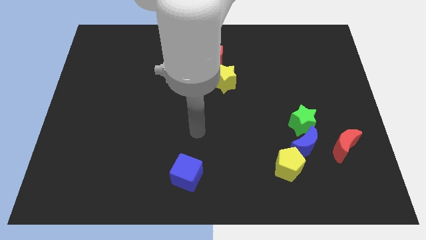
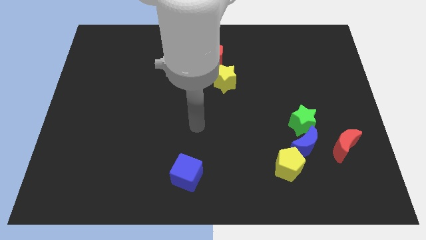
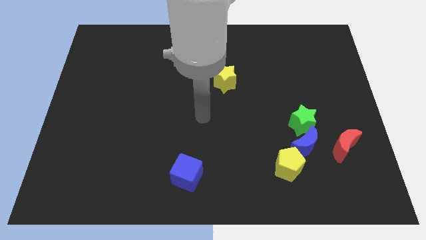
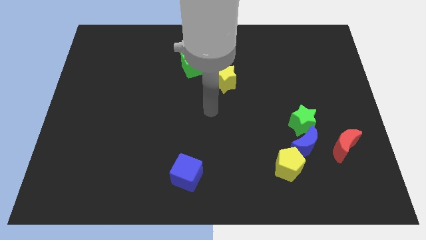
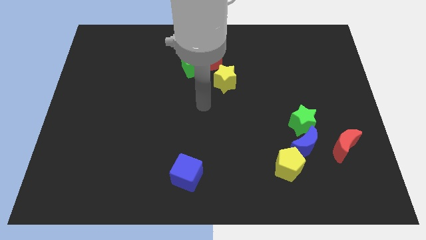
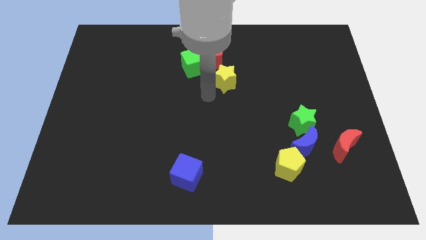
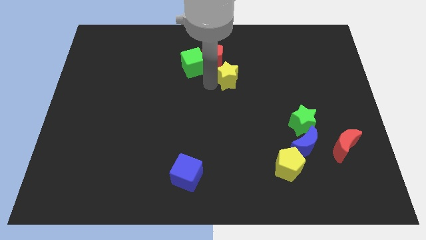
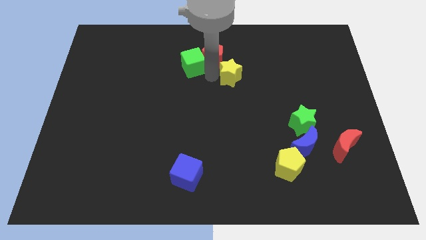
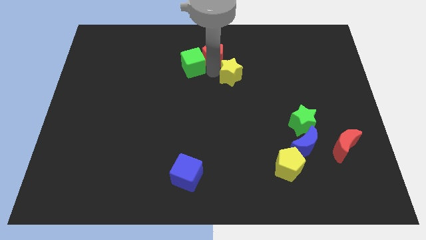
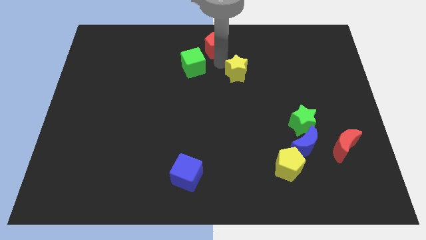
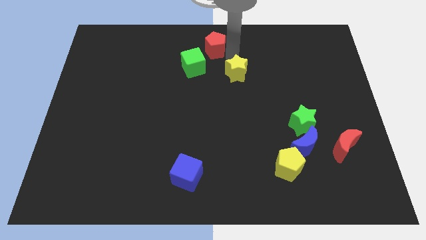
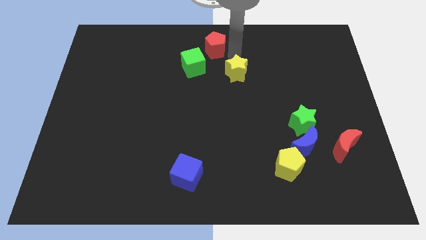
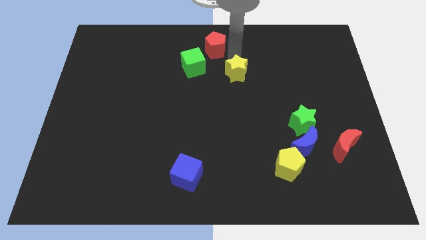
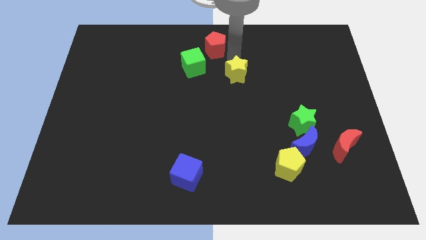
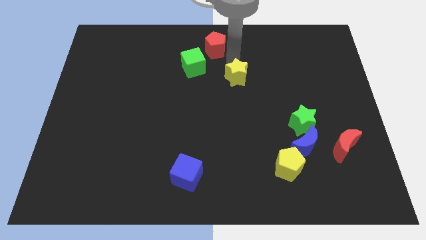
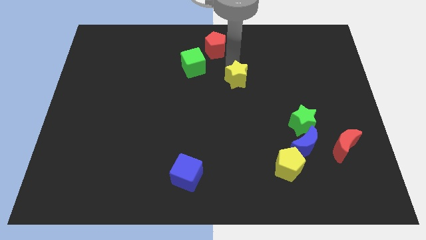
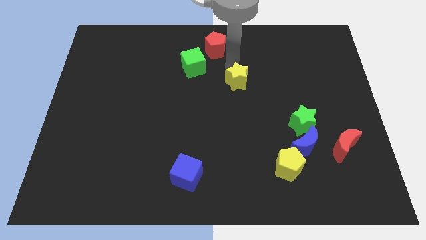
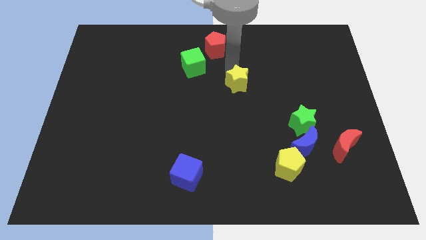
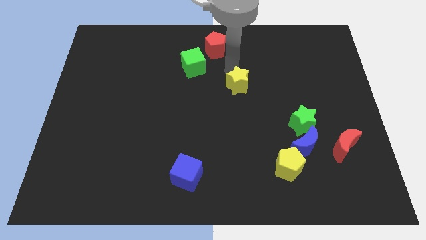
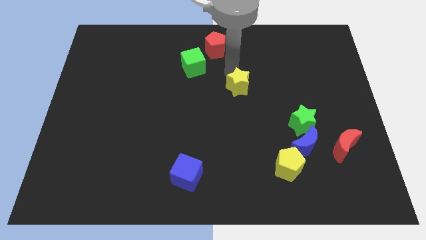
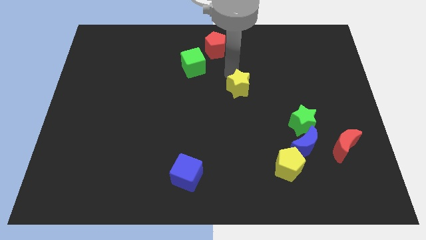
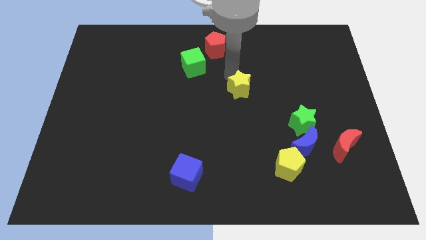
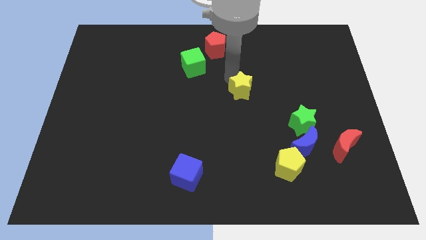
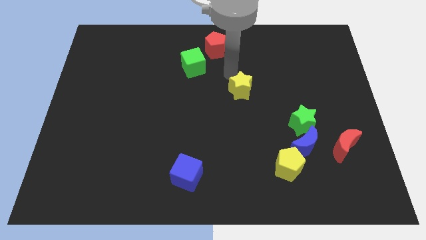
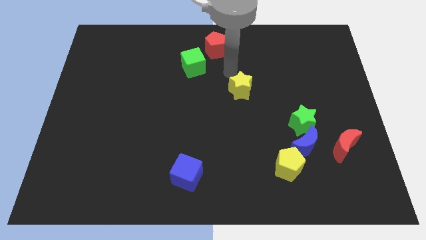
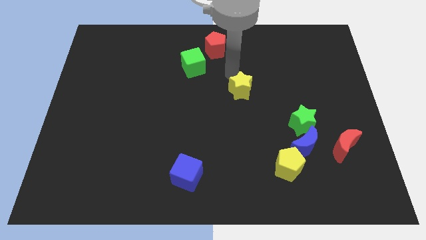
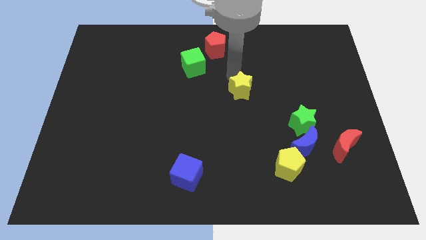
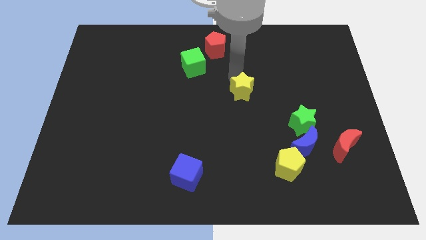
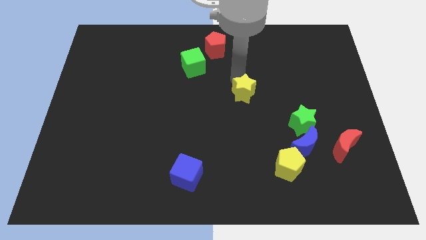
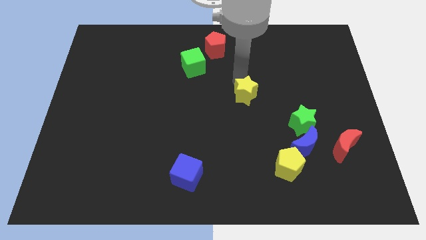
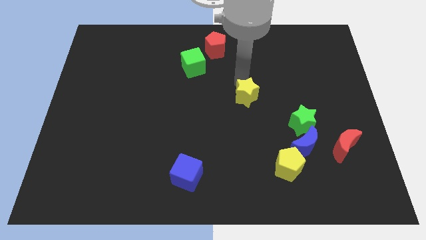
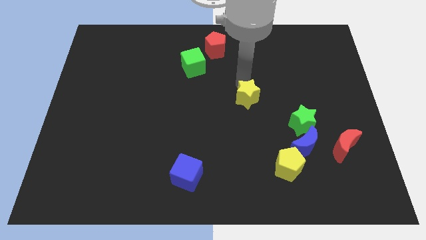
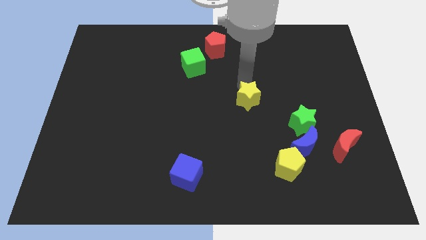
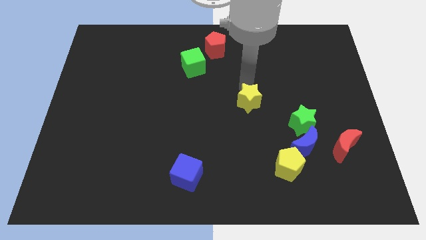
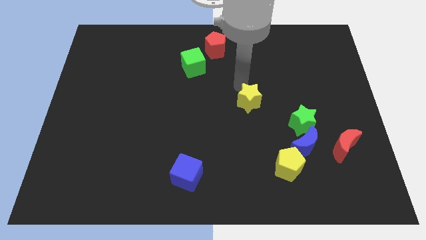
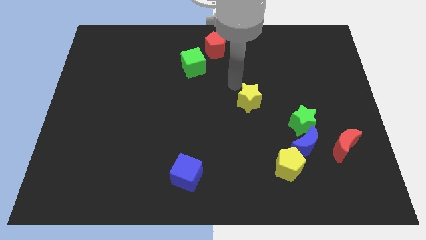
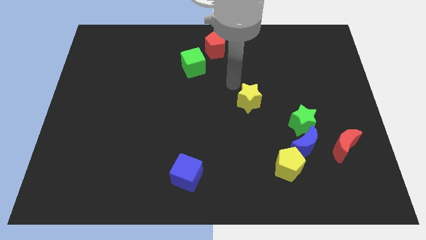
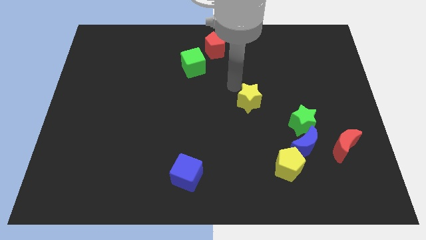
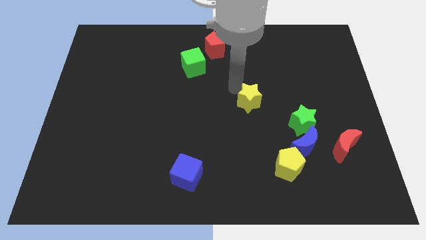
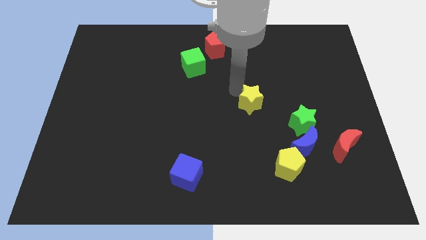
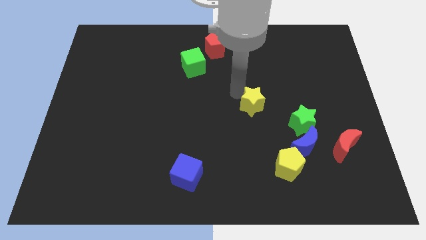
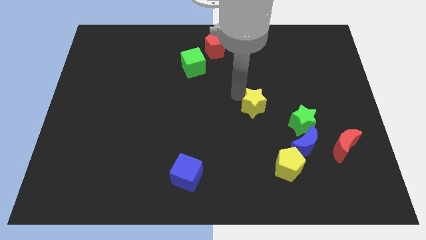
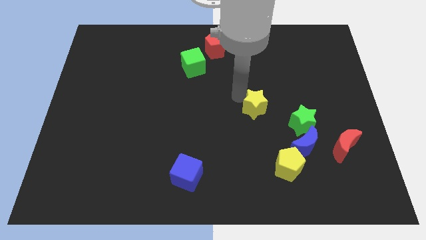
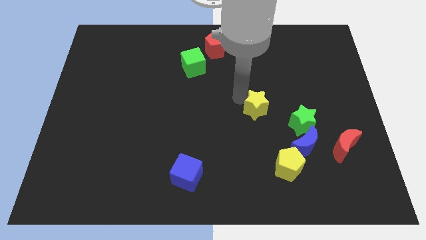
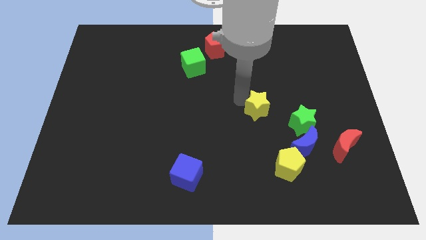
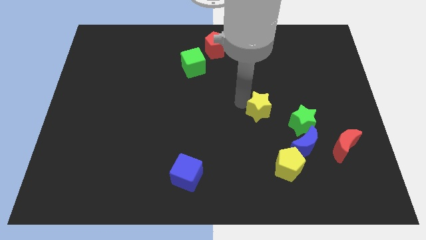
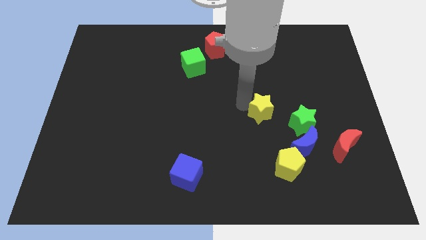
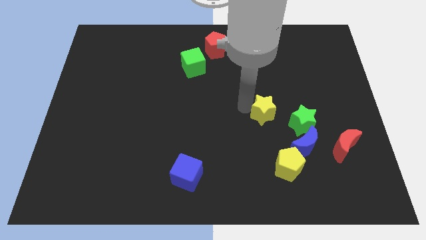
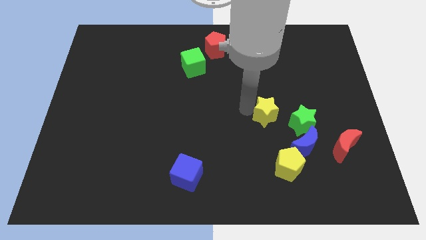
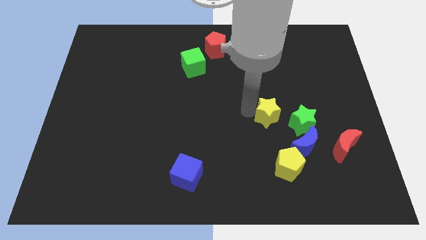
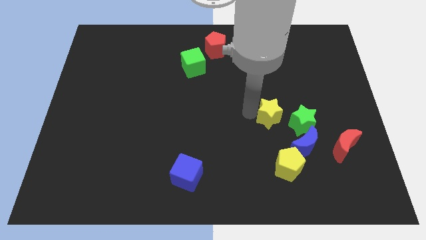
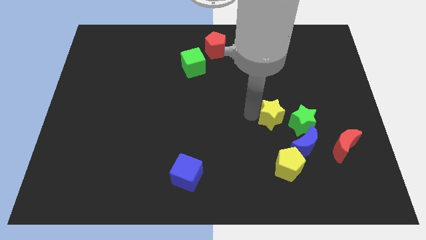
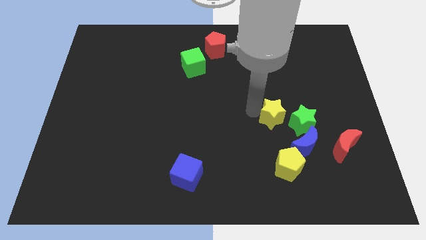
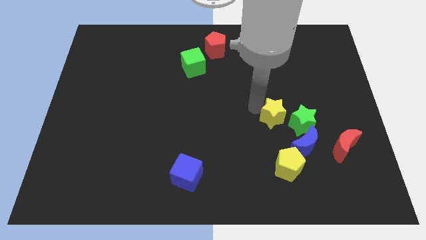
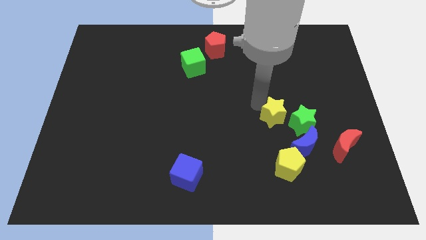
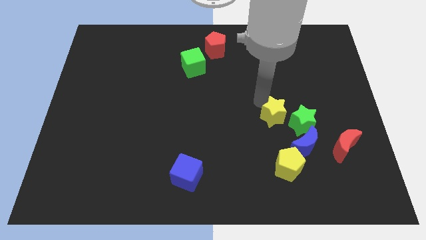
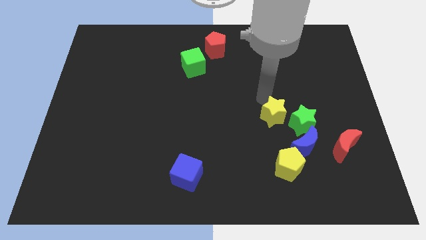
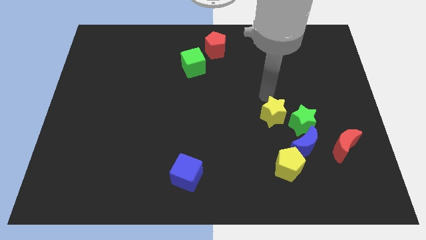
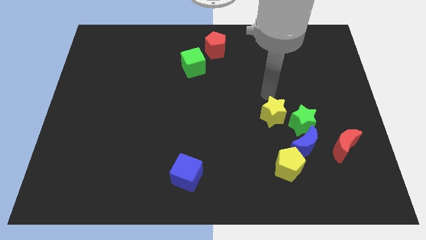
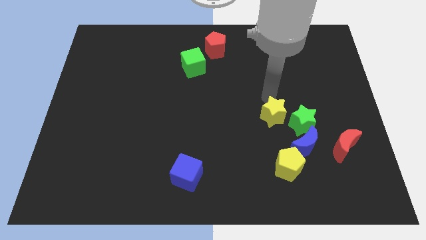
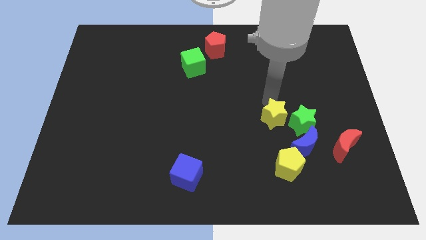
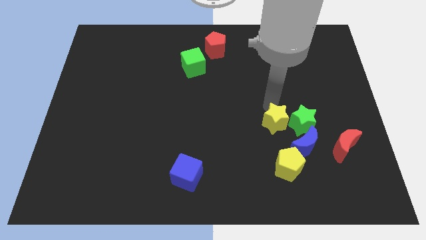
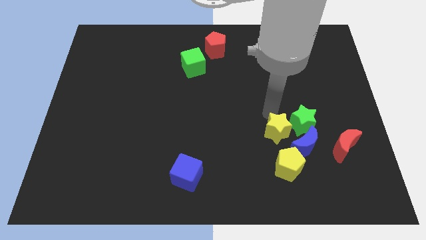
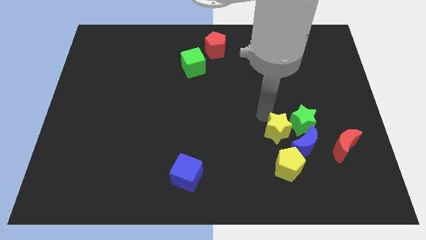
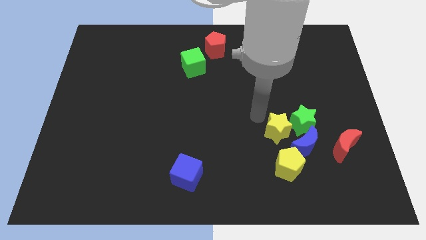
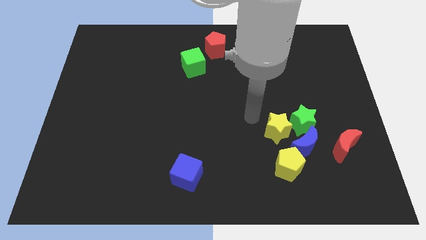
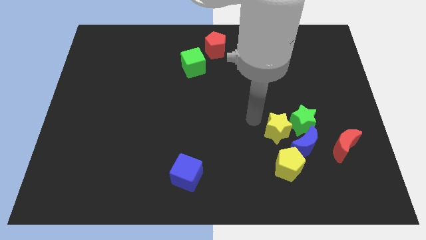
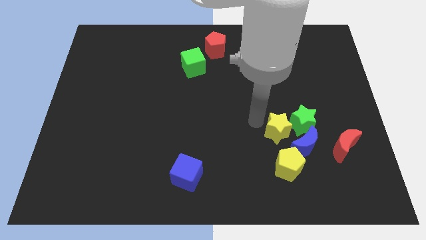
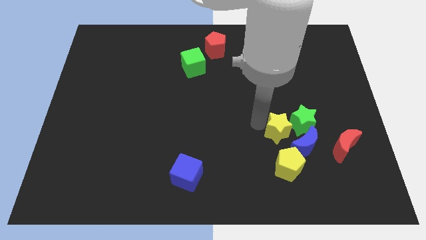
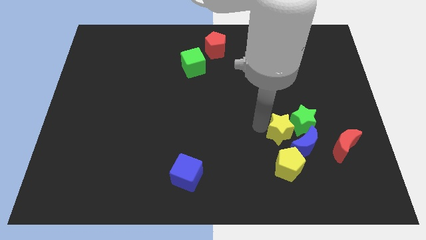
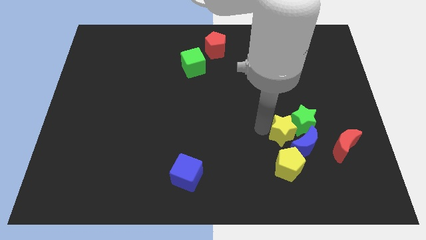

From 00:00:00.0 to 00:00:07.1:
move the yellow star next to the blue moon

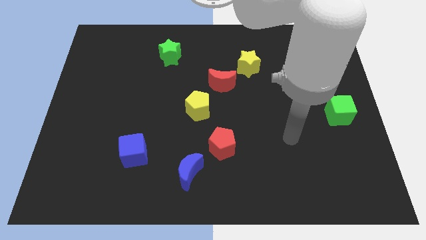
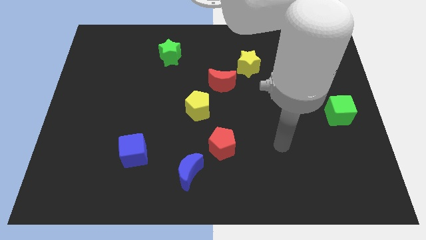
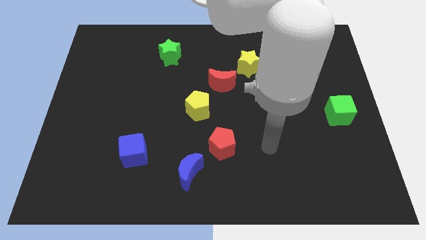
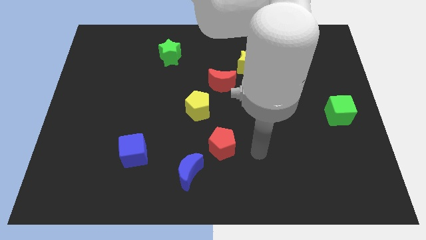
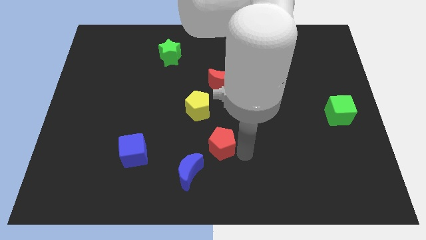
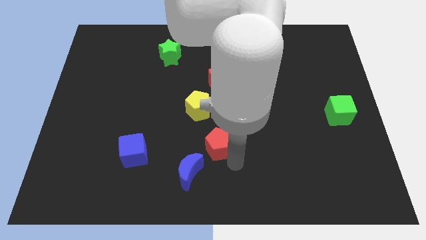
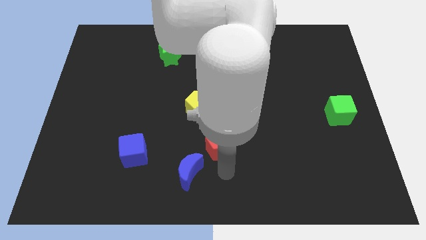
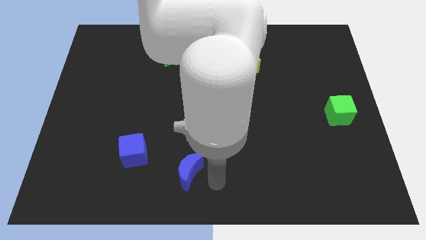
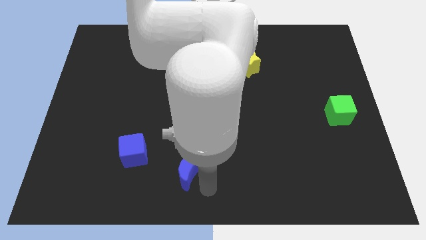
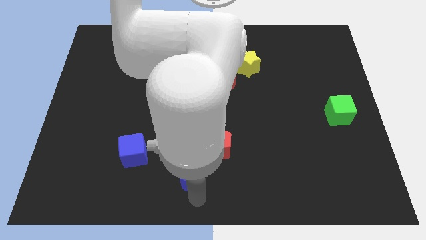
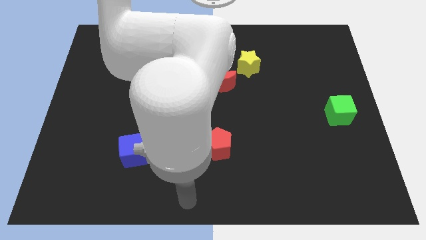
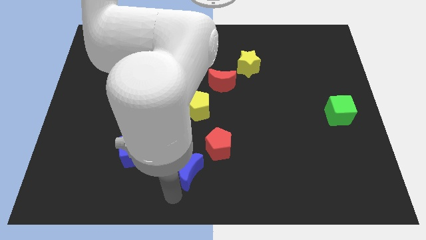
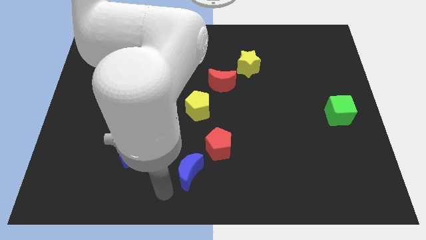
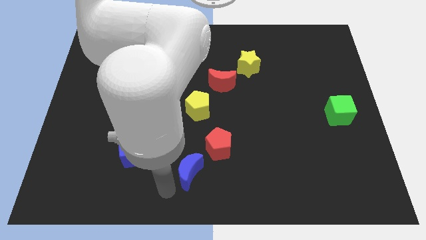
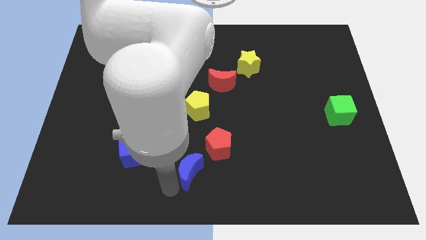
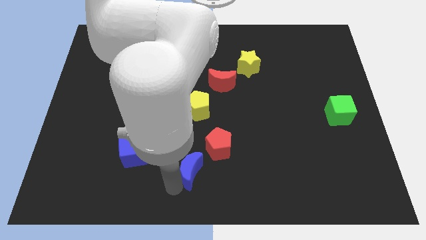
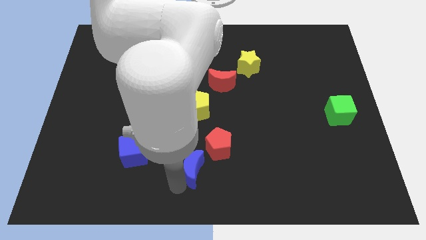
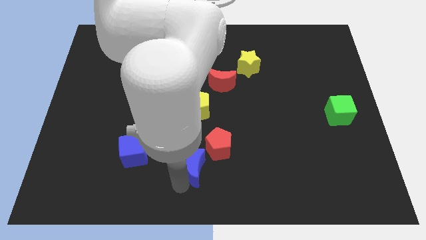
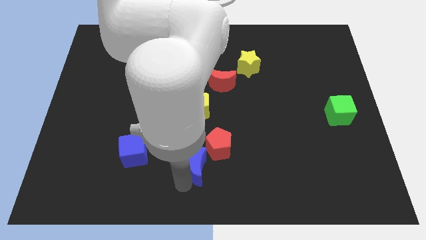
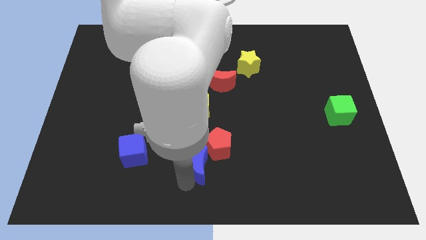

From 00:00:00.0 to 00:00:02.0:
move the blue moon towards the red pentagon
